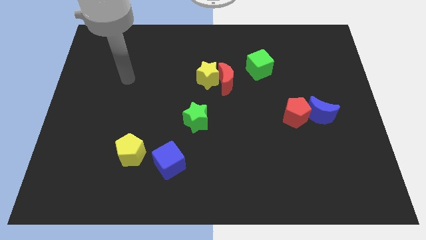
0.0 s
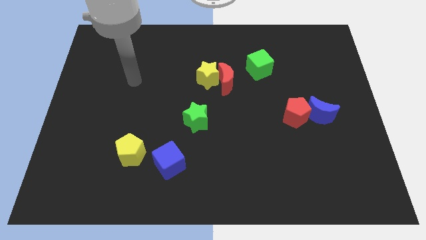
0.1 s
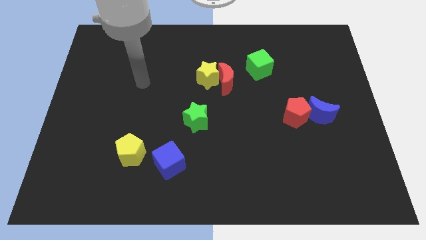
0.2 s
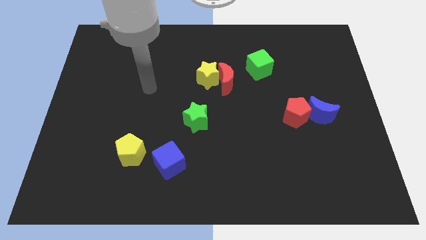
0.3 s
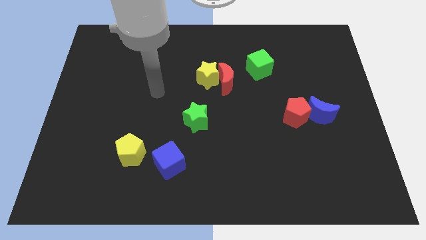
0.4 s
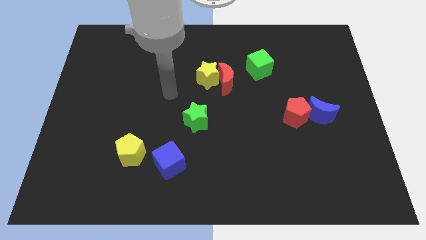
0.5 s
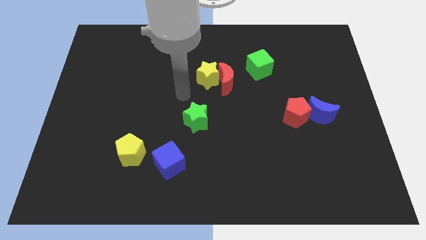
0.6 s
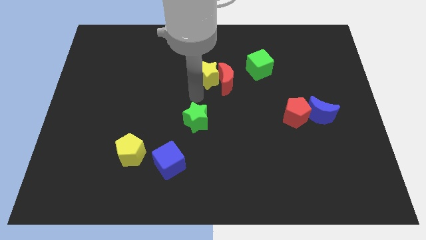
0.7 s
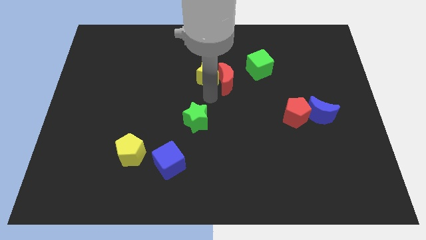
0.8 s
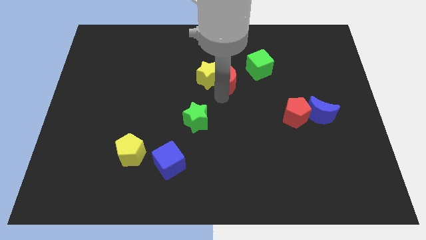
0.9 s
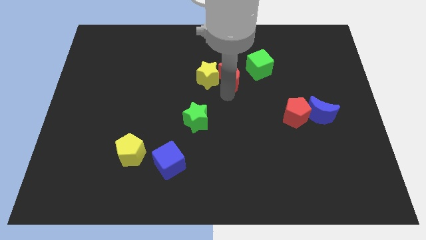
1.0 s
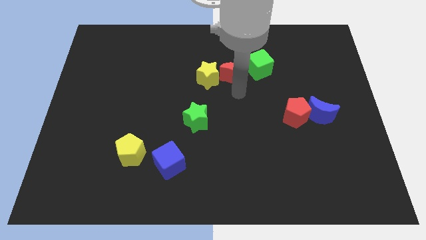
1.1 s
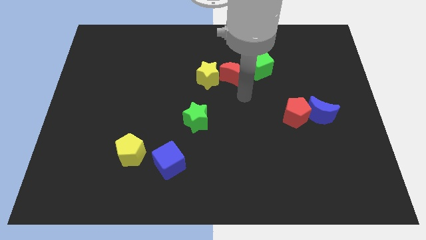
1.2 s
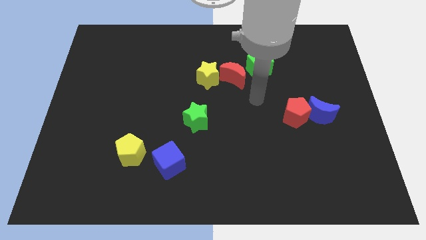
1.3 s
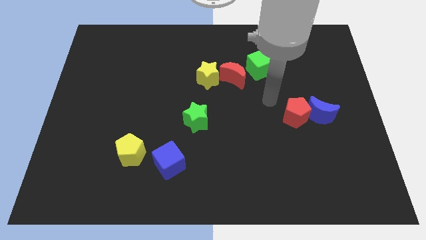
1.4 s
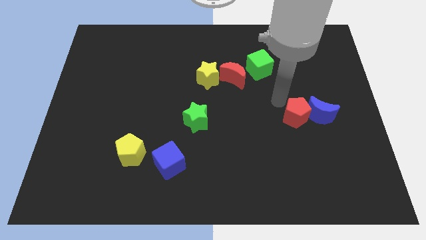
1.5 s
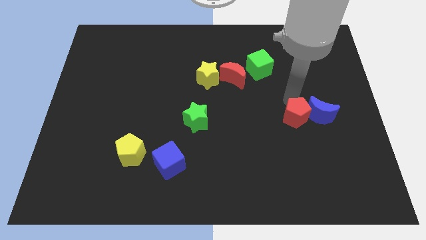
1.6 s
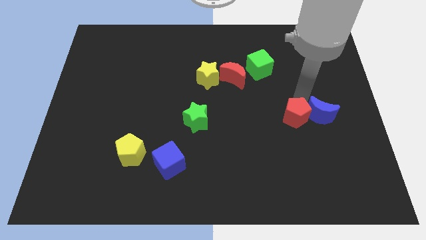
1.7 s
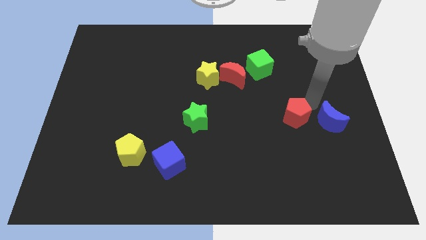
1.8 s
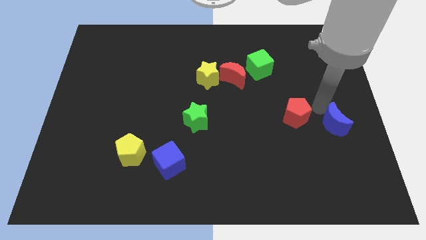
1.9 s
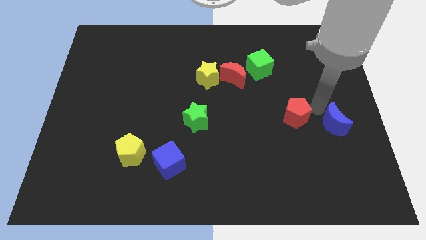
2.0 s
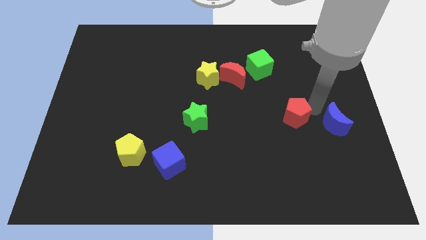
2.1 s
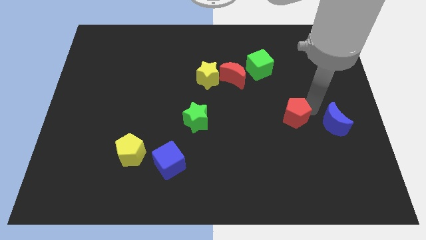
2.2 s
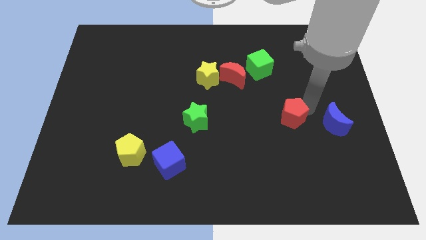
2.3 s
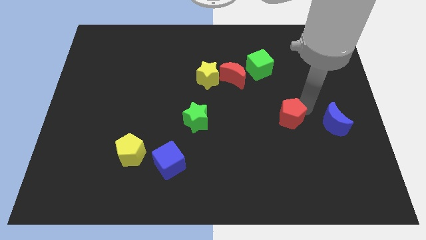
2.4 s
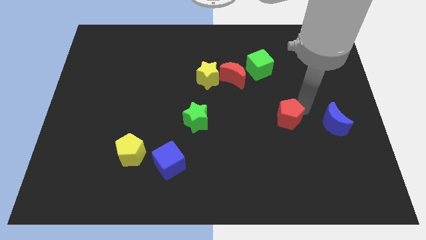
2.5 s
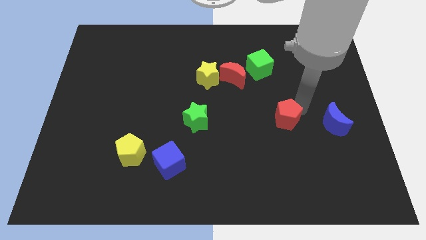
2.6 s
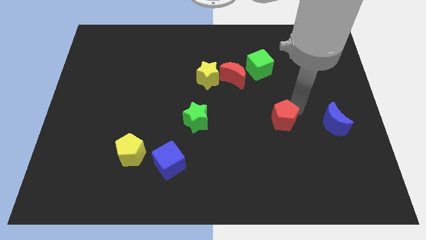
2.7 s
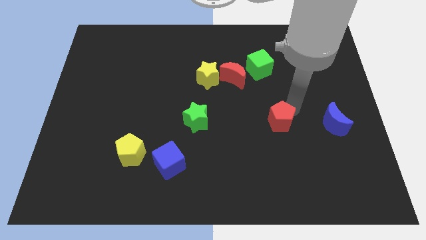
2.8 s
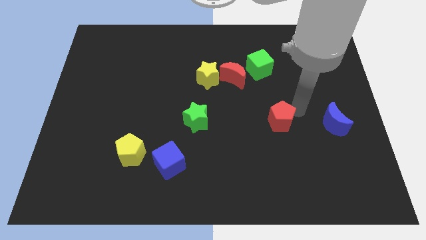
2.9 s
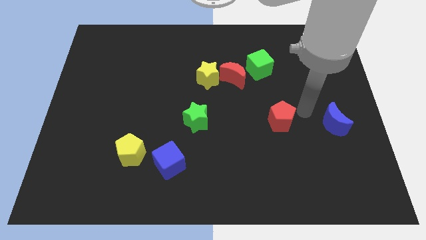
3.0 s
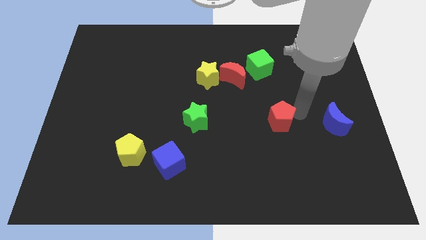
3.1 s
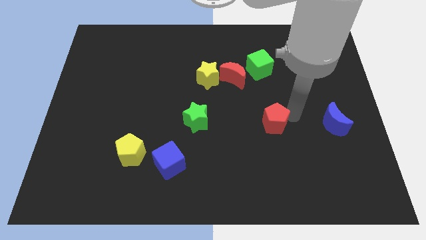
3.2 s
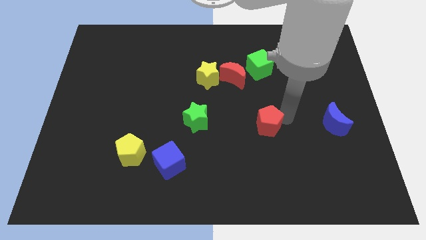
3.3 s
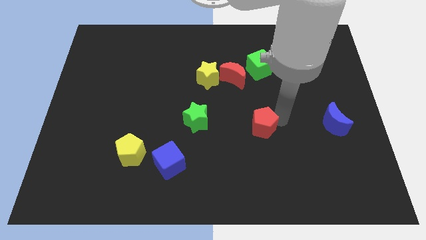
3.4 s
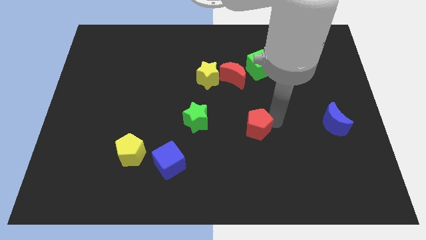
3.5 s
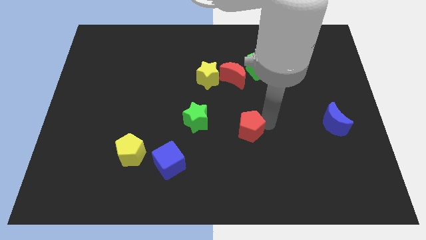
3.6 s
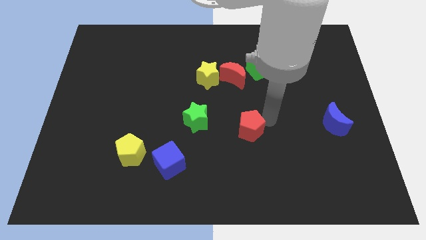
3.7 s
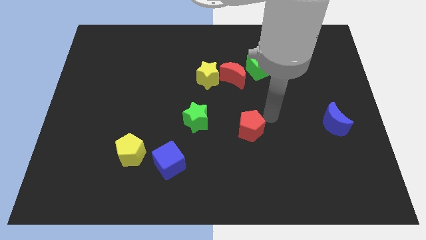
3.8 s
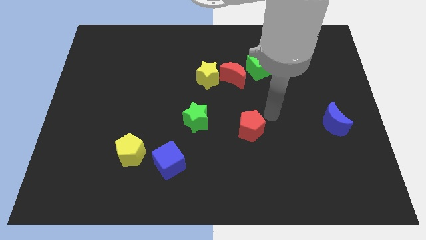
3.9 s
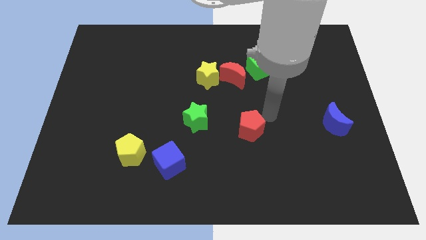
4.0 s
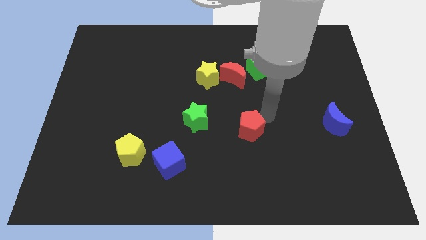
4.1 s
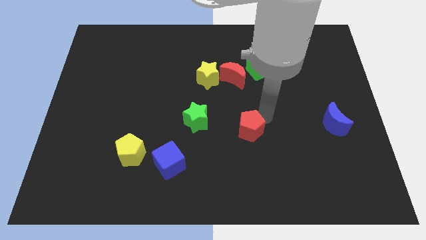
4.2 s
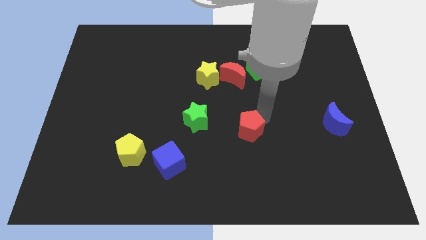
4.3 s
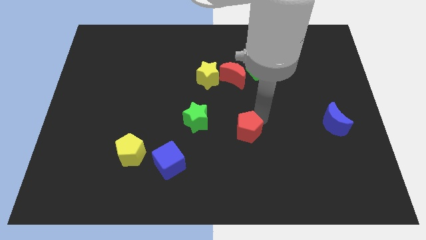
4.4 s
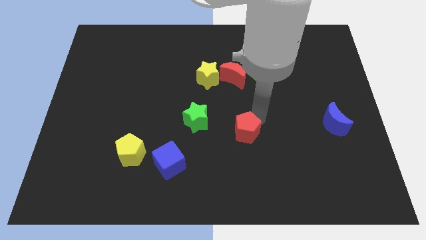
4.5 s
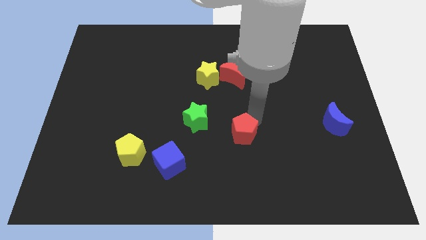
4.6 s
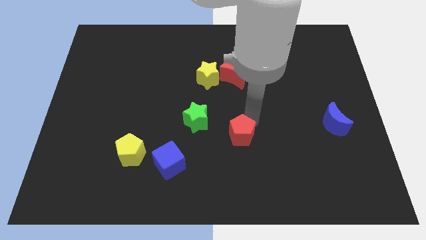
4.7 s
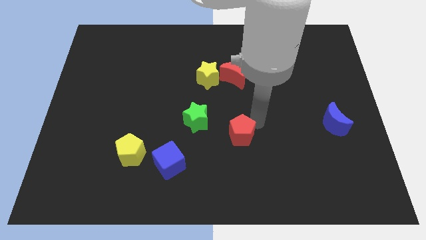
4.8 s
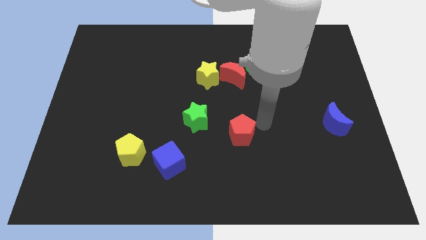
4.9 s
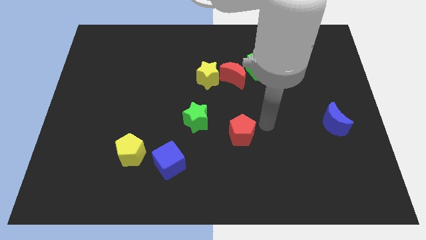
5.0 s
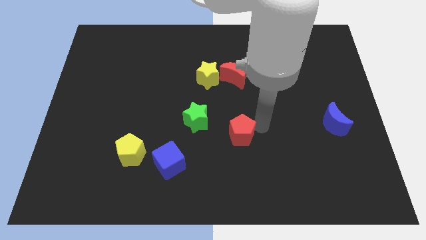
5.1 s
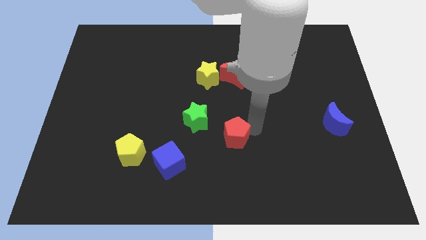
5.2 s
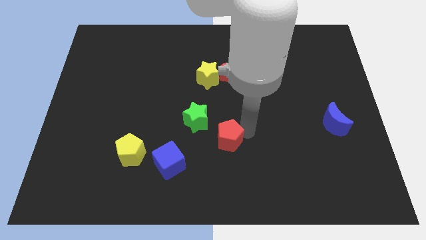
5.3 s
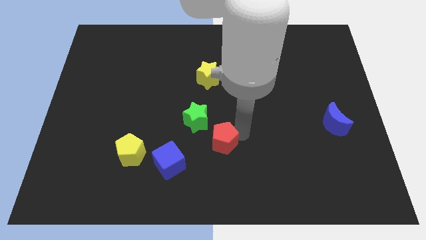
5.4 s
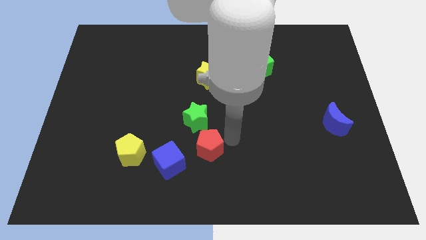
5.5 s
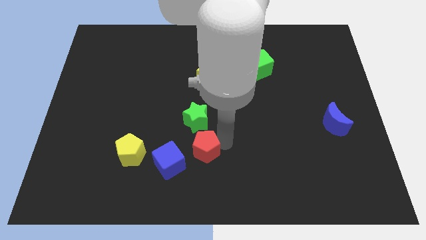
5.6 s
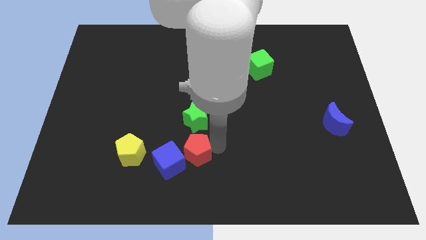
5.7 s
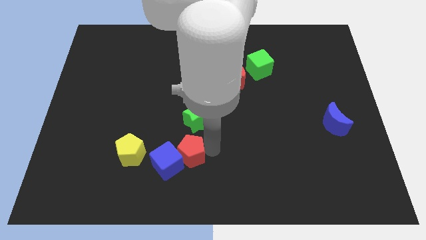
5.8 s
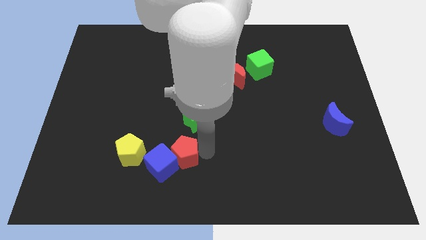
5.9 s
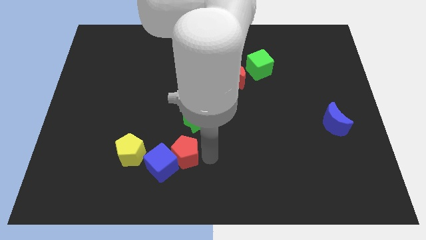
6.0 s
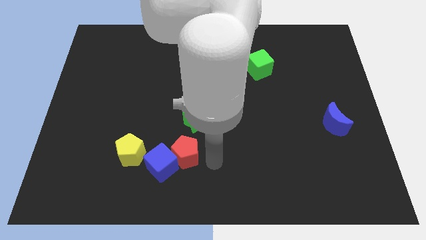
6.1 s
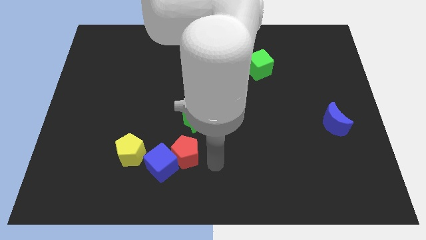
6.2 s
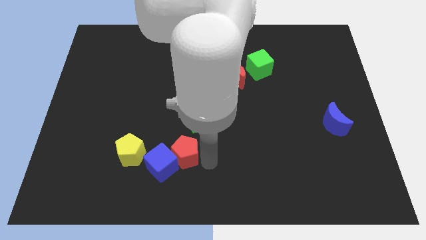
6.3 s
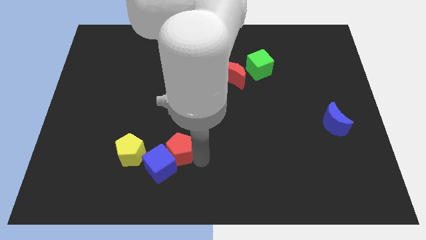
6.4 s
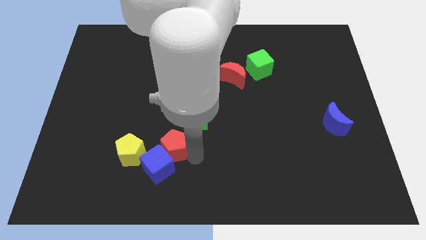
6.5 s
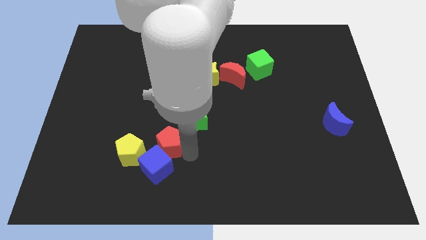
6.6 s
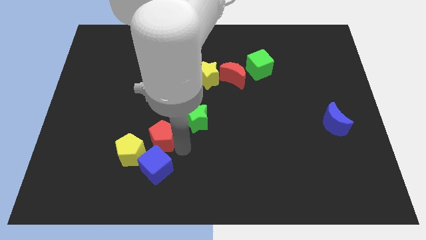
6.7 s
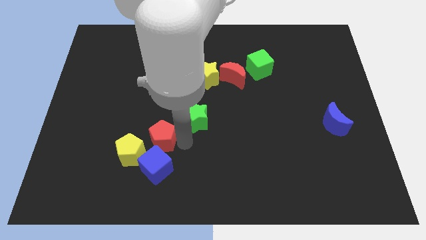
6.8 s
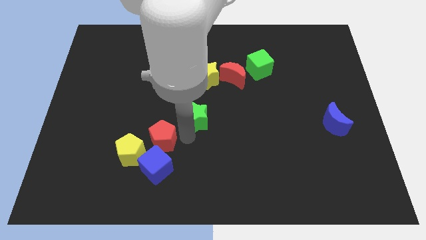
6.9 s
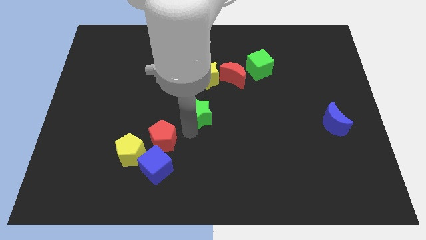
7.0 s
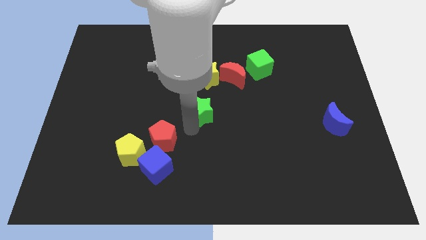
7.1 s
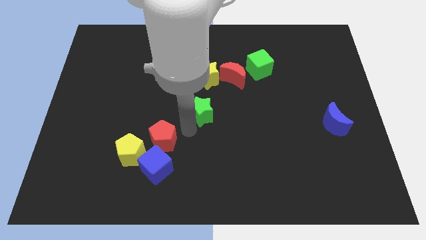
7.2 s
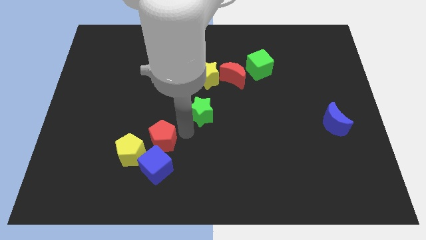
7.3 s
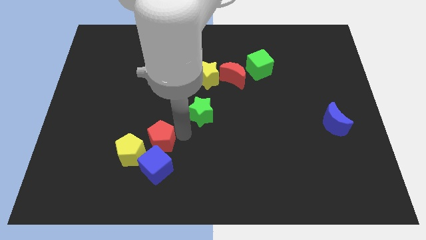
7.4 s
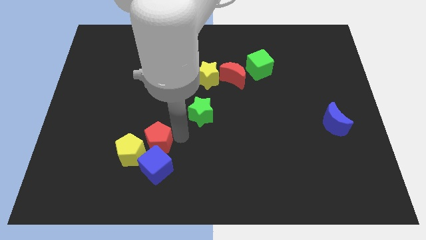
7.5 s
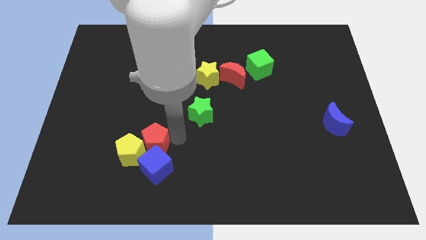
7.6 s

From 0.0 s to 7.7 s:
move the red pentagon to the yellow pentagon
